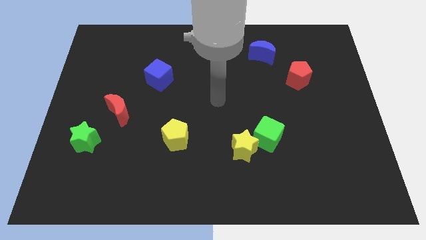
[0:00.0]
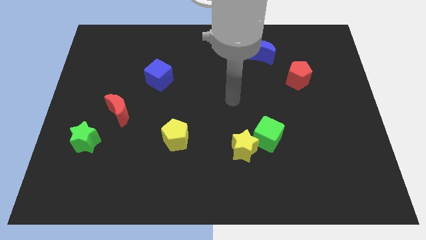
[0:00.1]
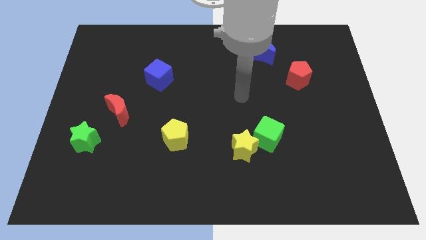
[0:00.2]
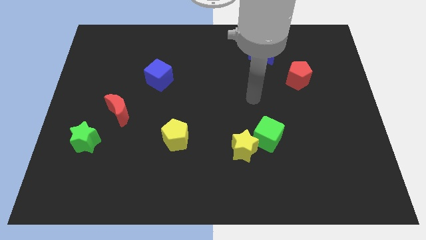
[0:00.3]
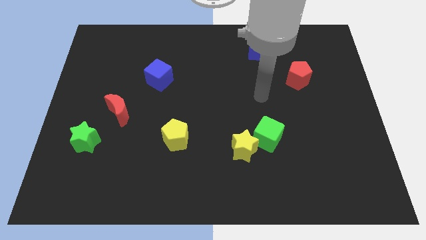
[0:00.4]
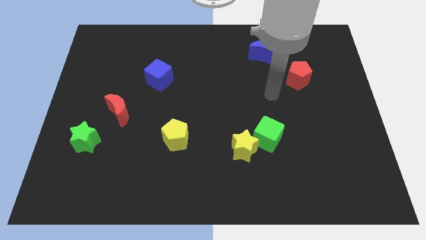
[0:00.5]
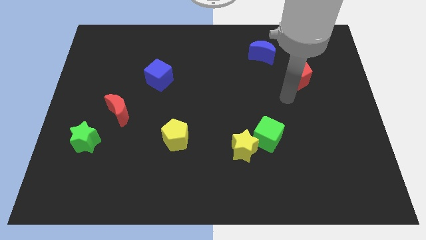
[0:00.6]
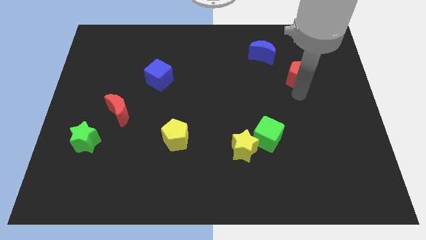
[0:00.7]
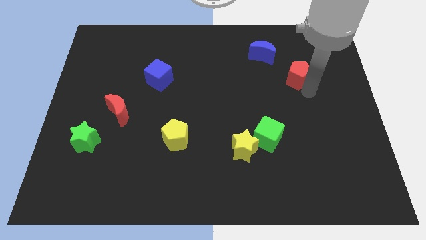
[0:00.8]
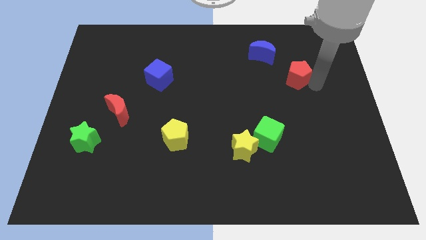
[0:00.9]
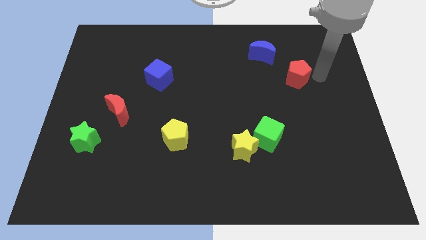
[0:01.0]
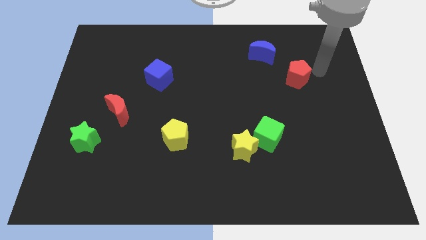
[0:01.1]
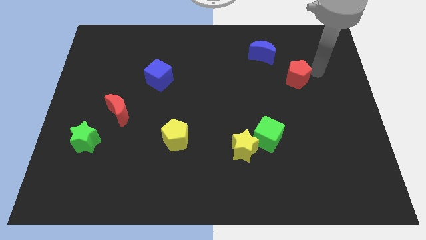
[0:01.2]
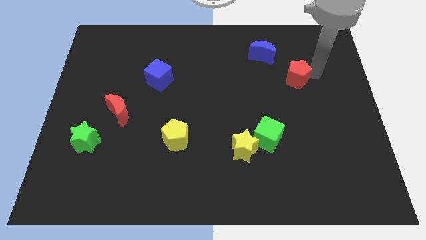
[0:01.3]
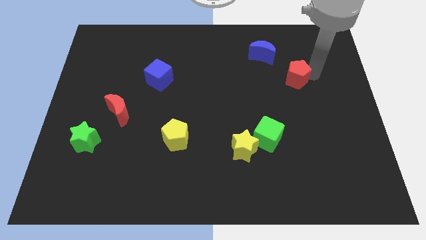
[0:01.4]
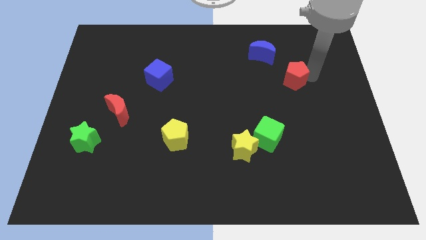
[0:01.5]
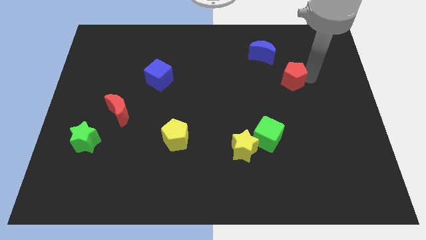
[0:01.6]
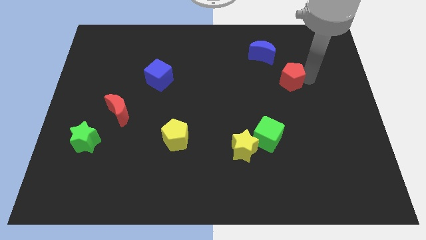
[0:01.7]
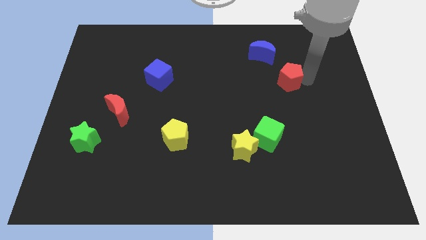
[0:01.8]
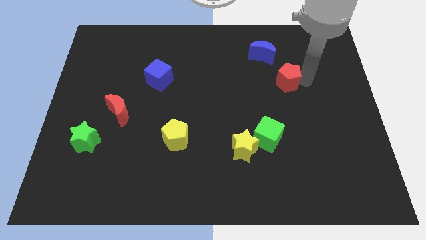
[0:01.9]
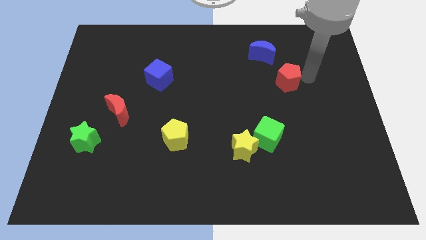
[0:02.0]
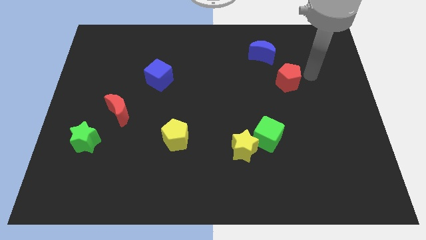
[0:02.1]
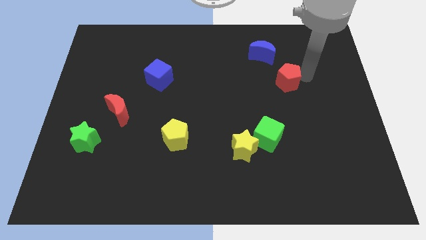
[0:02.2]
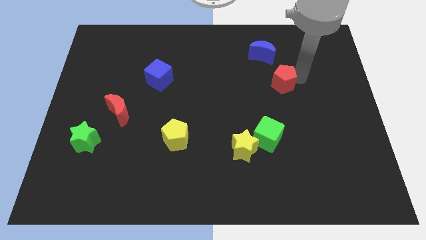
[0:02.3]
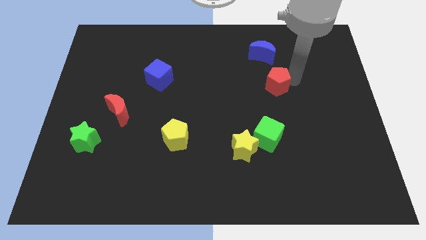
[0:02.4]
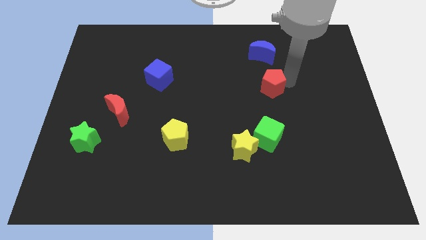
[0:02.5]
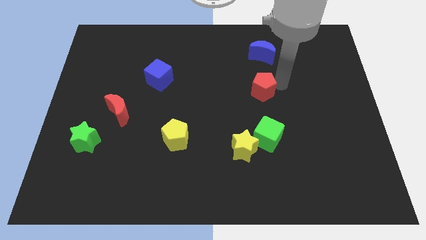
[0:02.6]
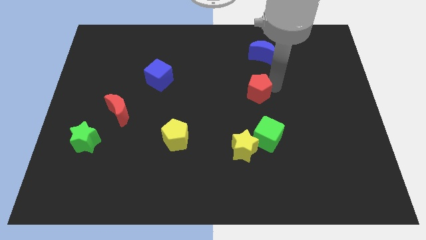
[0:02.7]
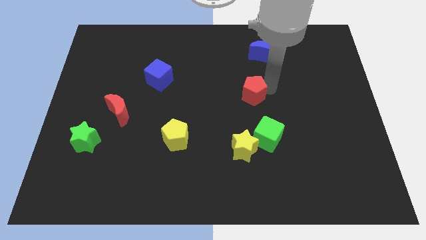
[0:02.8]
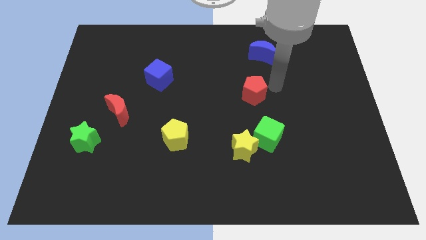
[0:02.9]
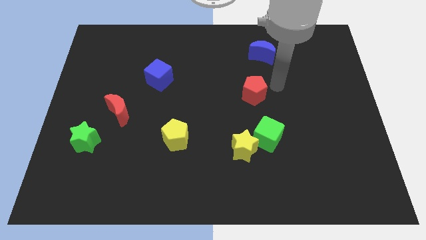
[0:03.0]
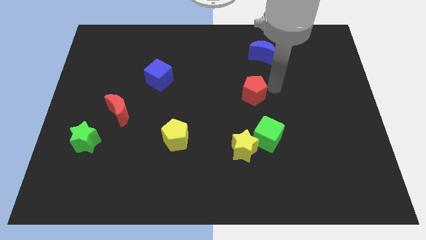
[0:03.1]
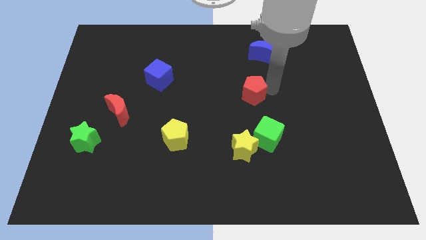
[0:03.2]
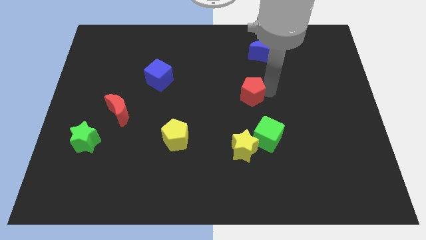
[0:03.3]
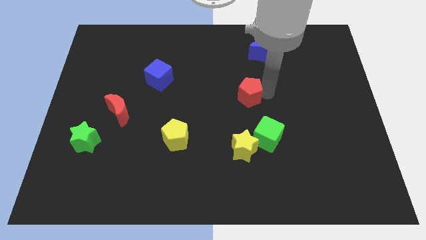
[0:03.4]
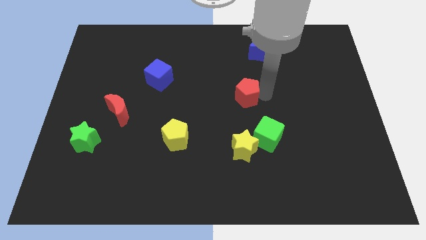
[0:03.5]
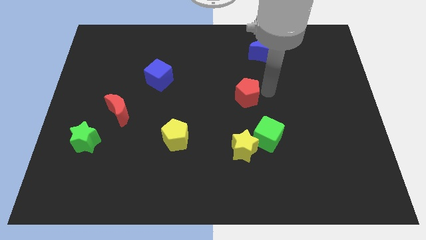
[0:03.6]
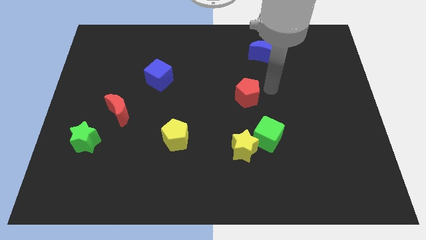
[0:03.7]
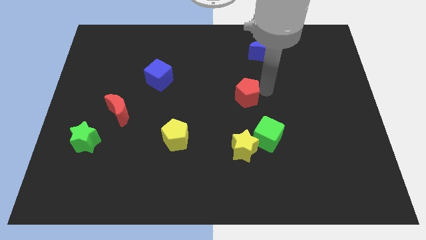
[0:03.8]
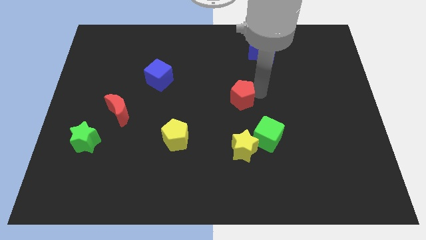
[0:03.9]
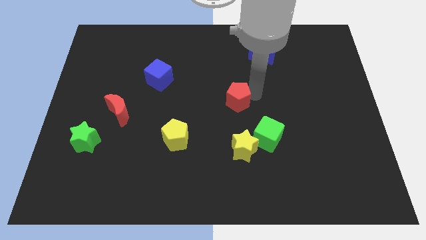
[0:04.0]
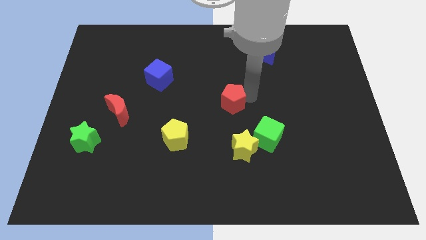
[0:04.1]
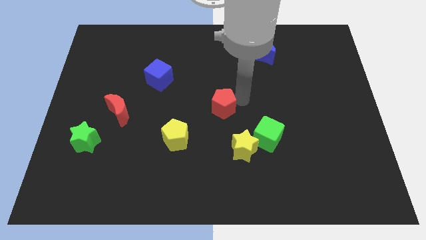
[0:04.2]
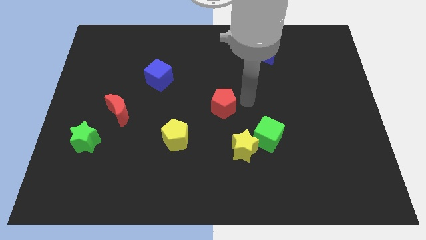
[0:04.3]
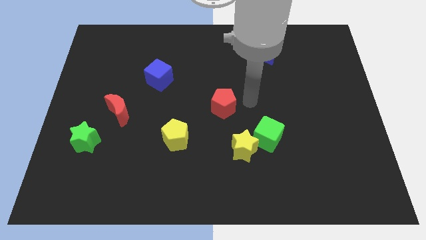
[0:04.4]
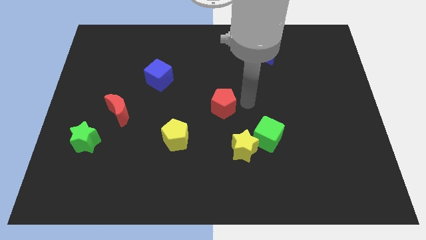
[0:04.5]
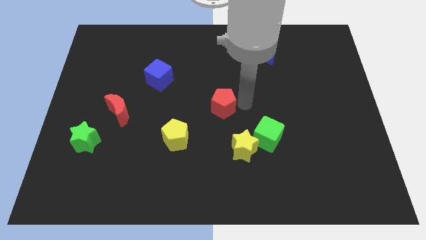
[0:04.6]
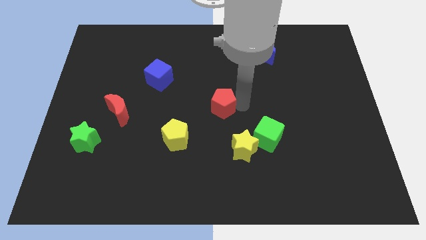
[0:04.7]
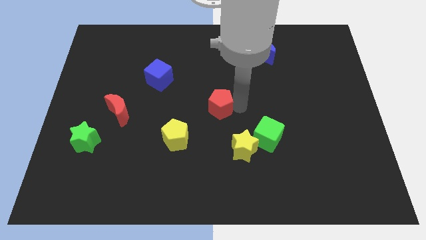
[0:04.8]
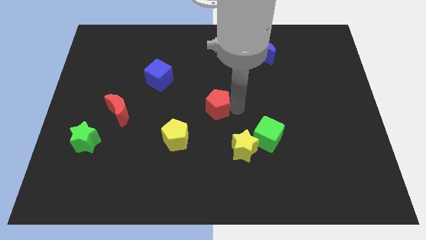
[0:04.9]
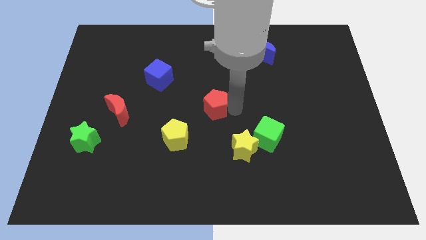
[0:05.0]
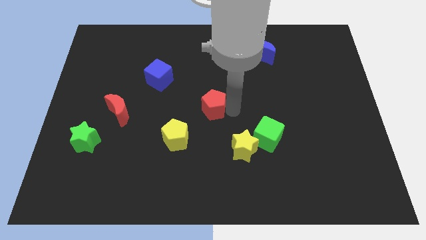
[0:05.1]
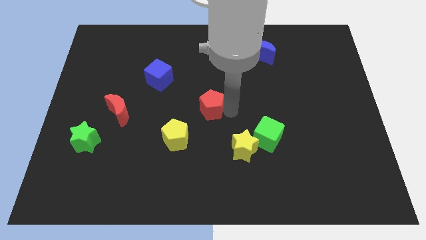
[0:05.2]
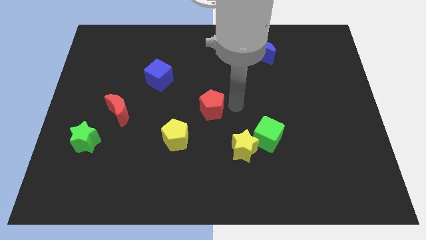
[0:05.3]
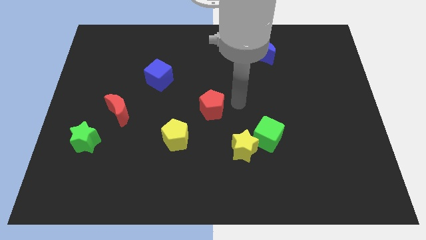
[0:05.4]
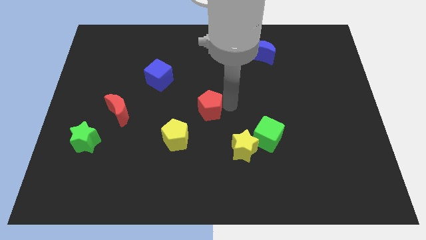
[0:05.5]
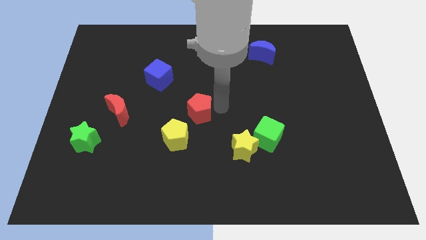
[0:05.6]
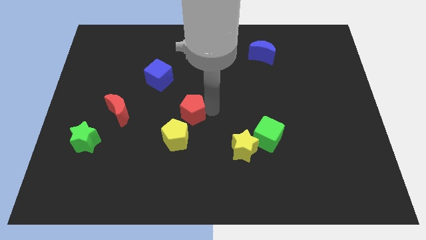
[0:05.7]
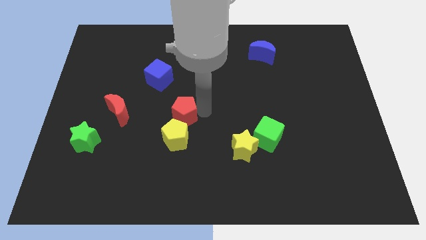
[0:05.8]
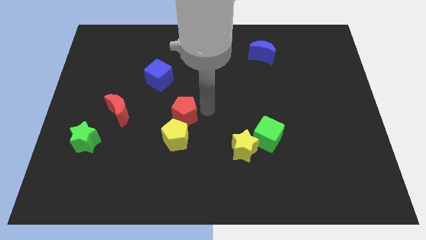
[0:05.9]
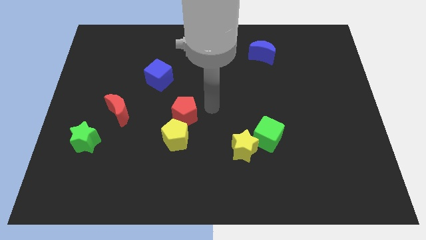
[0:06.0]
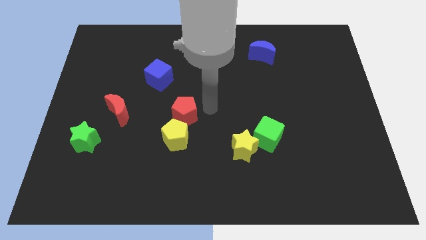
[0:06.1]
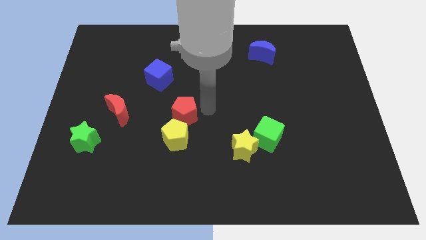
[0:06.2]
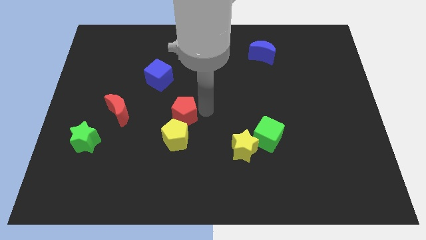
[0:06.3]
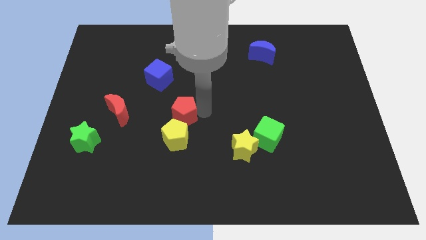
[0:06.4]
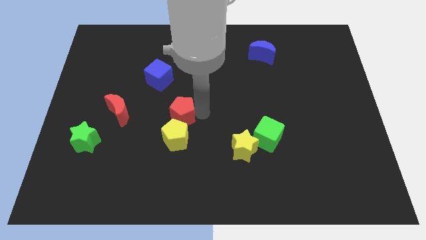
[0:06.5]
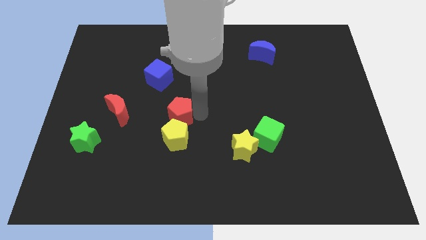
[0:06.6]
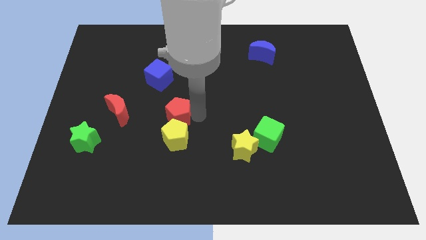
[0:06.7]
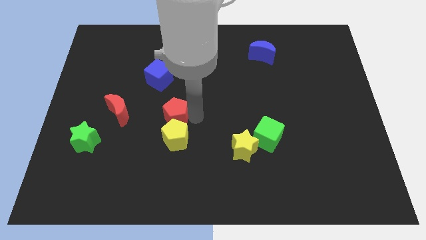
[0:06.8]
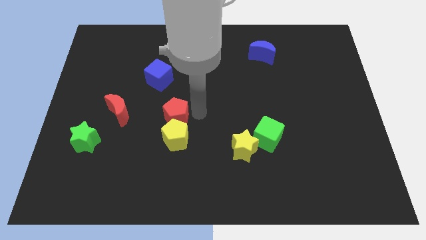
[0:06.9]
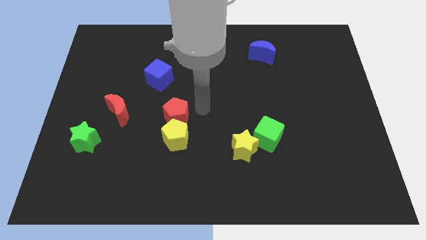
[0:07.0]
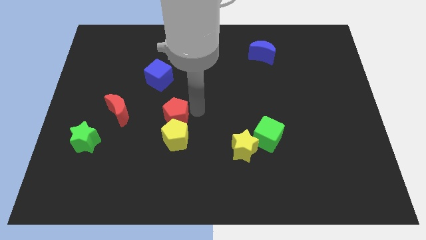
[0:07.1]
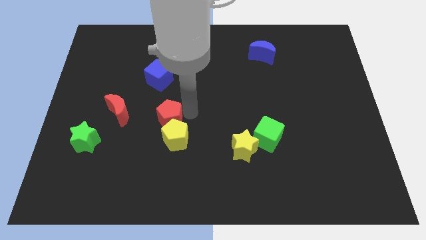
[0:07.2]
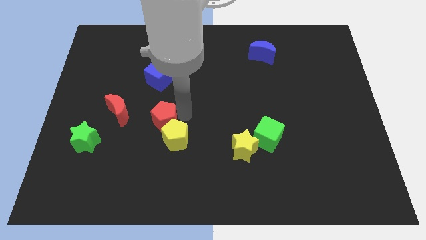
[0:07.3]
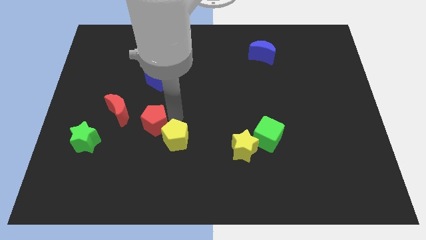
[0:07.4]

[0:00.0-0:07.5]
move the red pentagon left of the yellow pentagon
